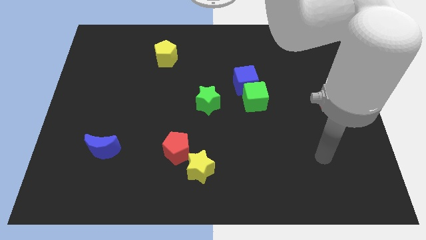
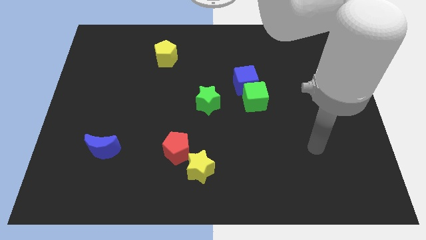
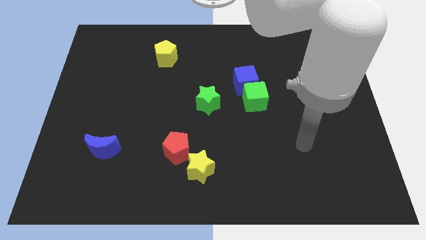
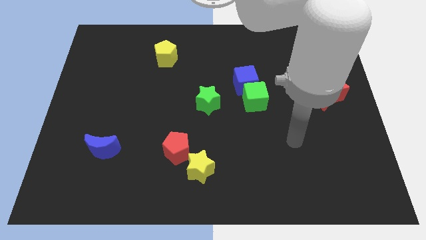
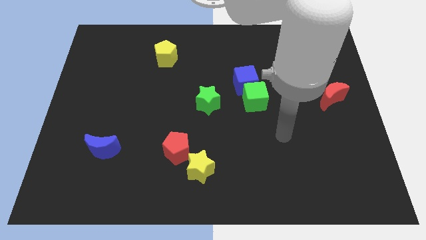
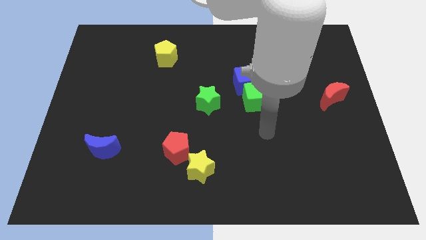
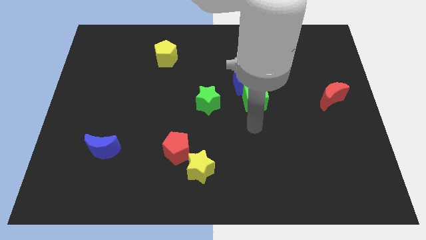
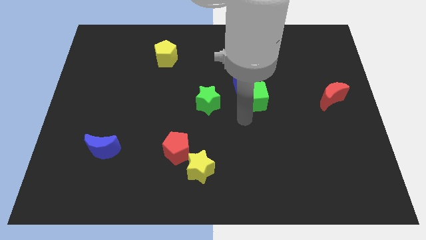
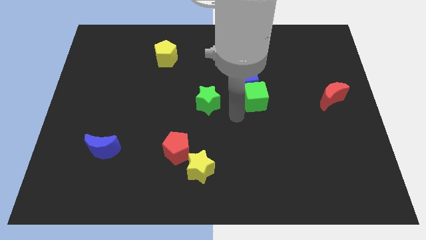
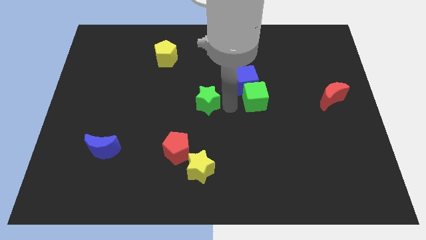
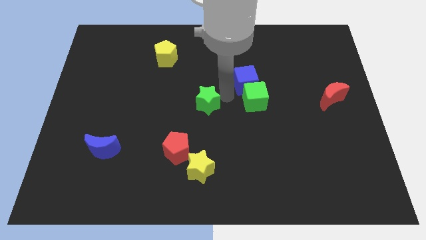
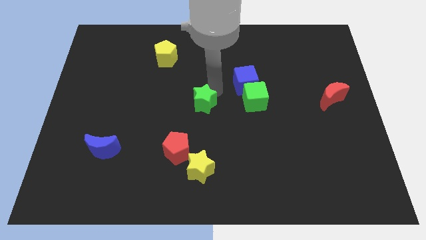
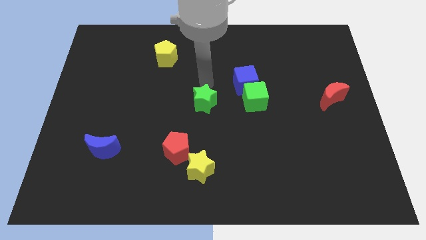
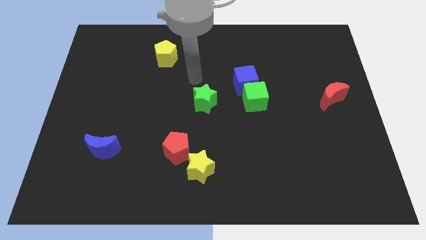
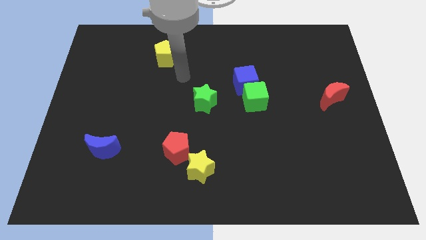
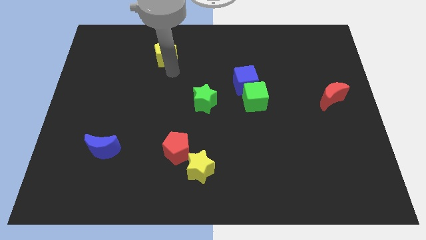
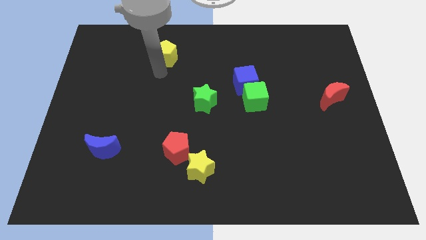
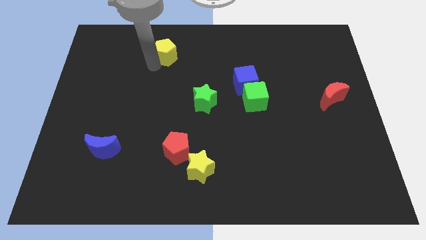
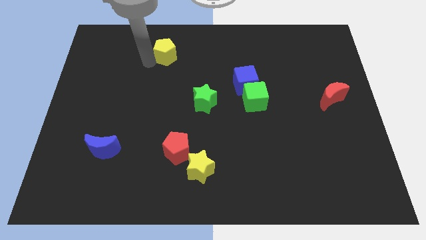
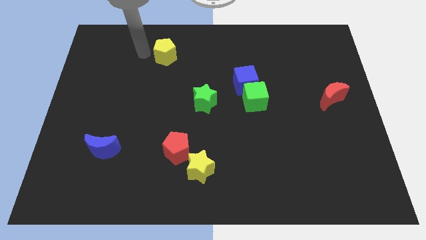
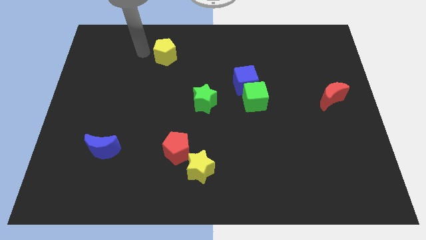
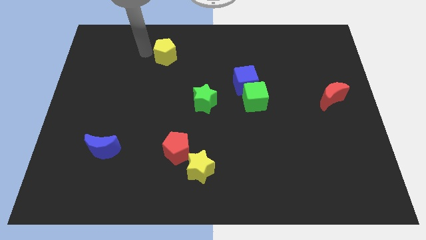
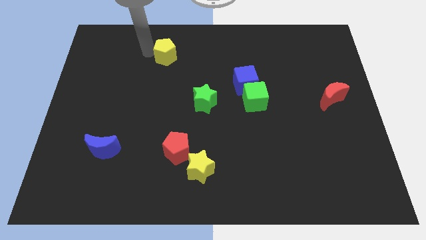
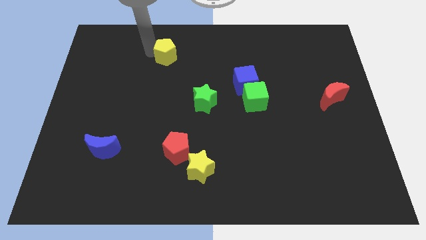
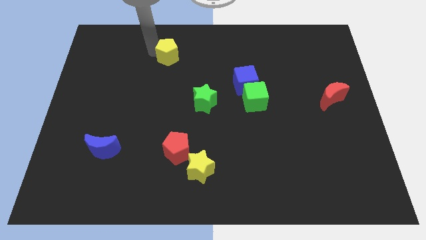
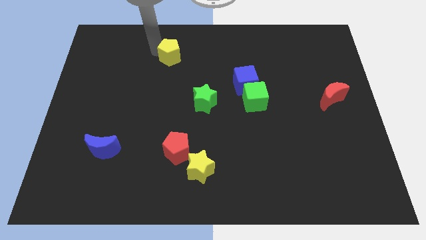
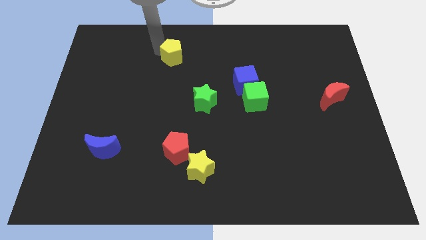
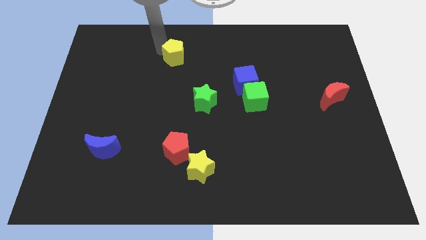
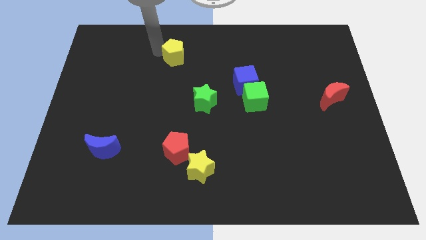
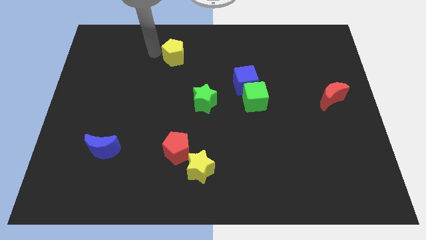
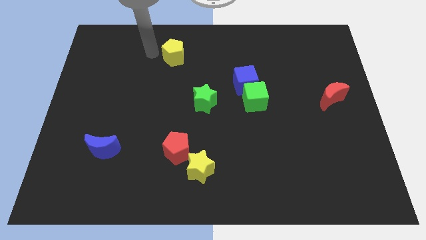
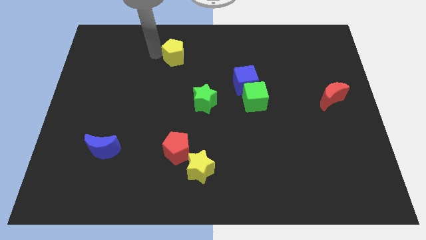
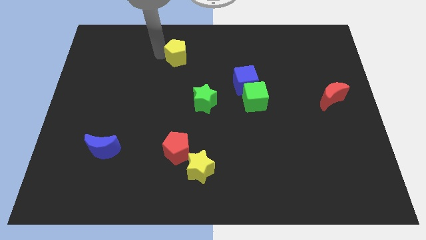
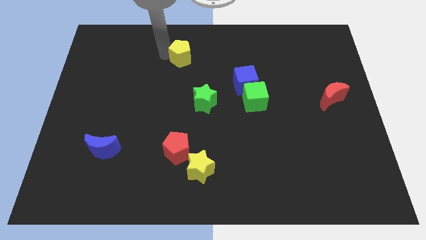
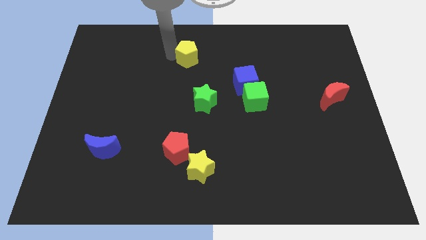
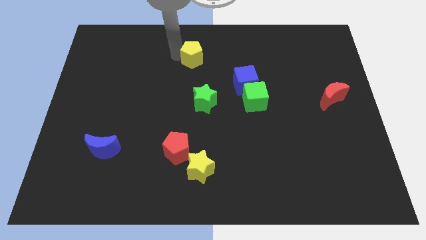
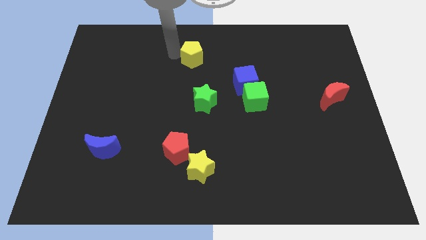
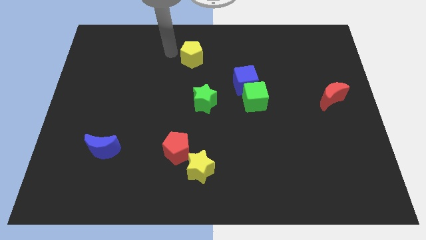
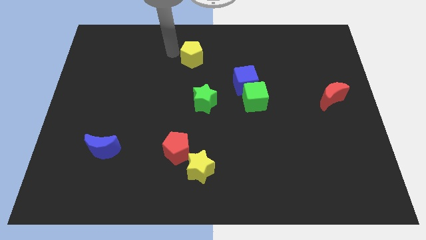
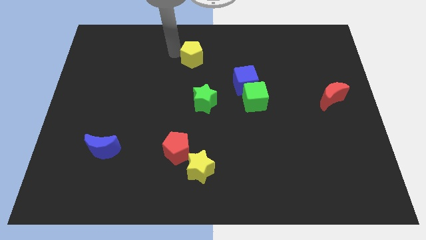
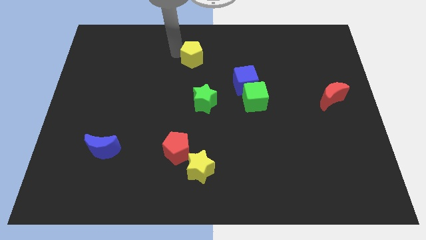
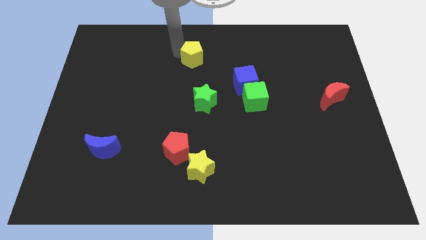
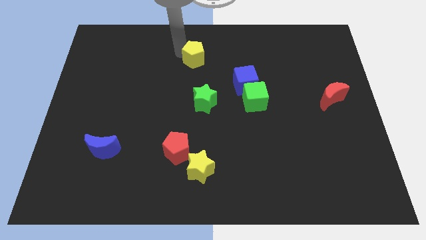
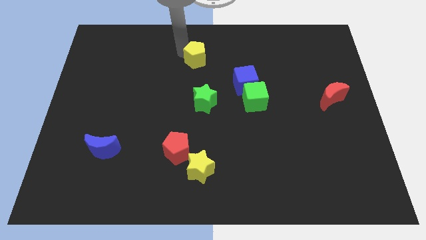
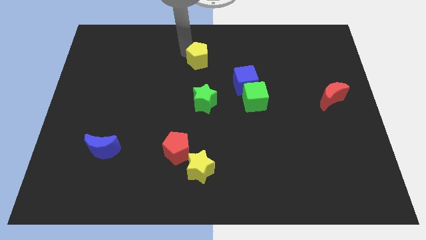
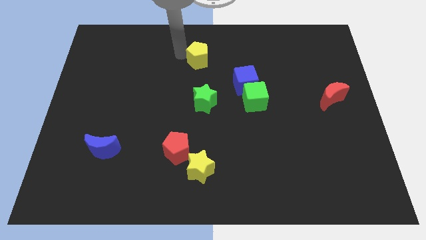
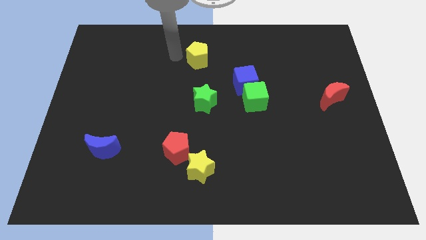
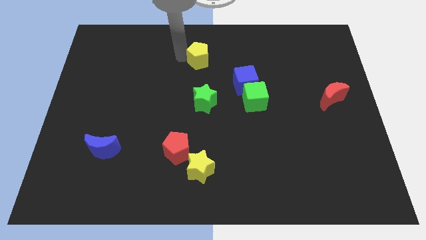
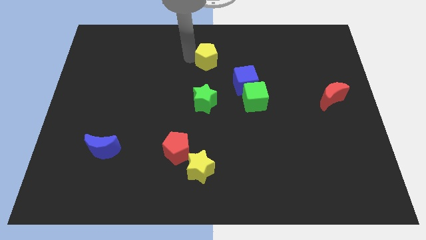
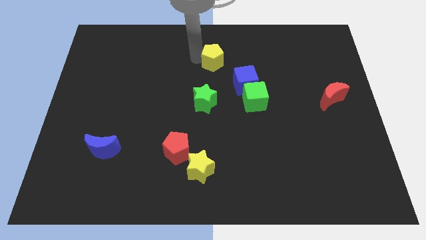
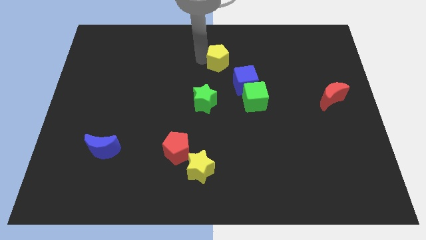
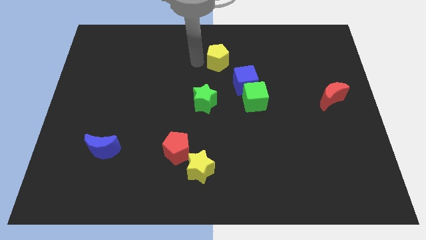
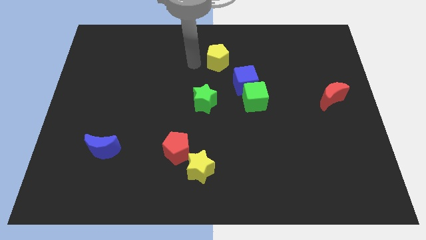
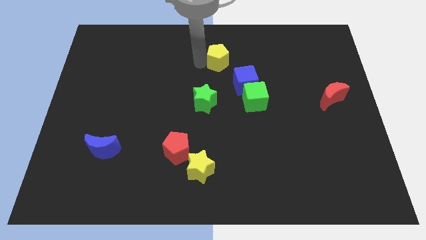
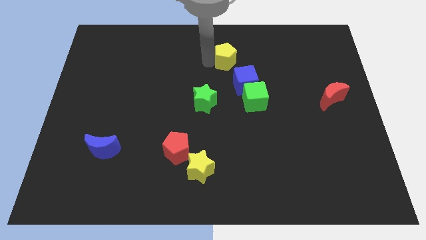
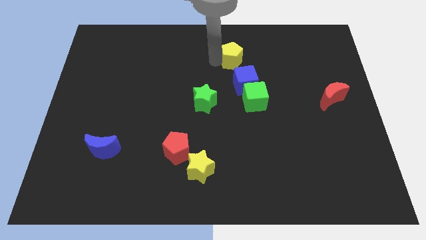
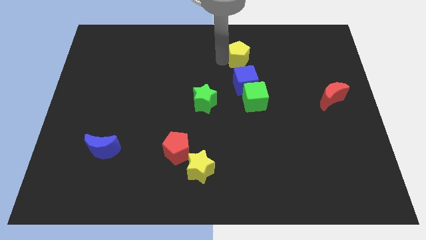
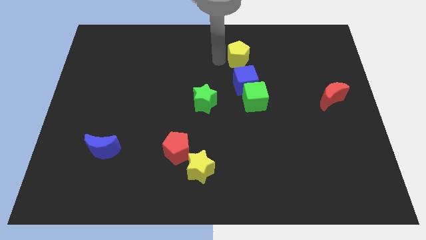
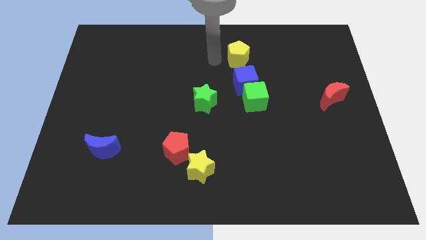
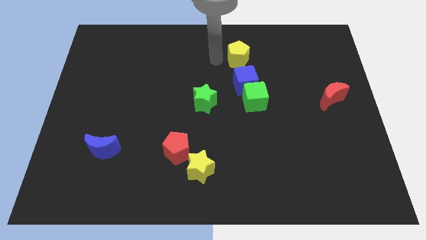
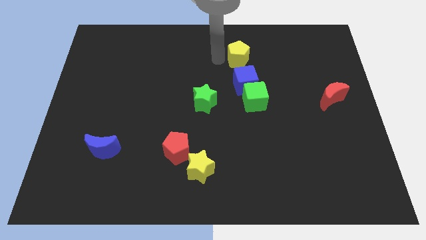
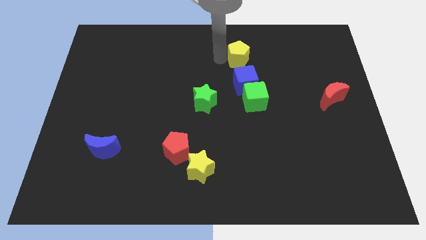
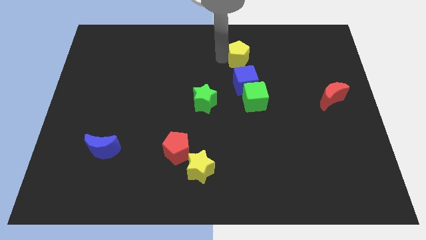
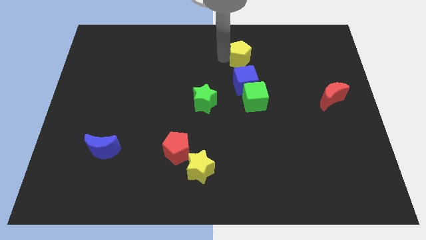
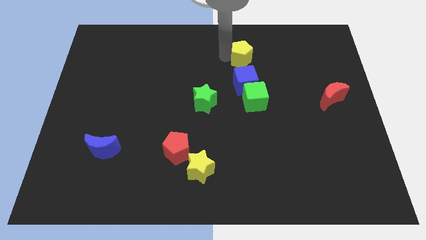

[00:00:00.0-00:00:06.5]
move the yellow pentagon to the right

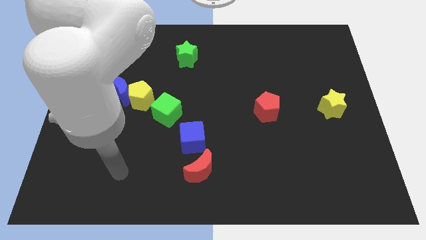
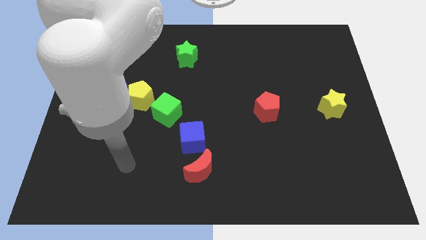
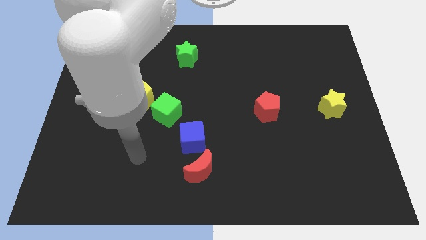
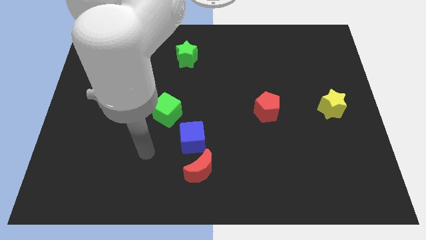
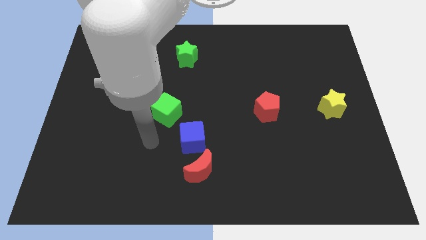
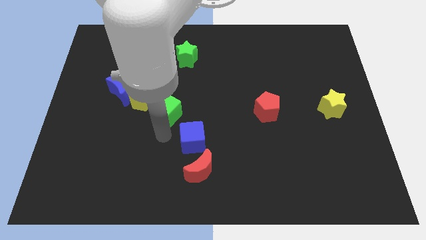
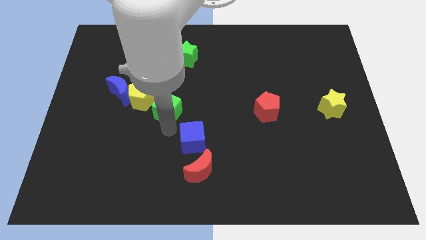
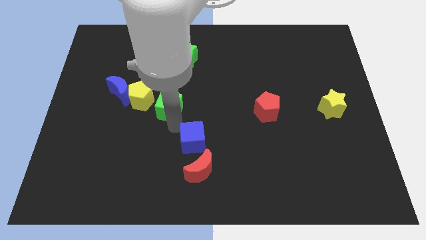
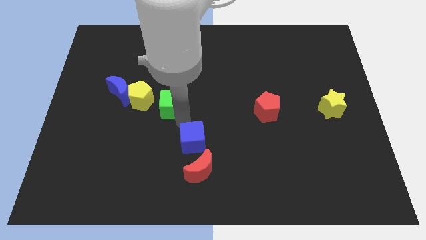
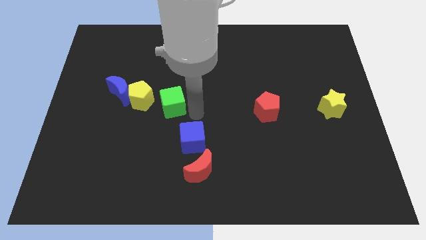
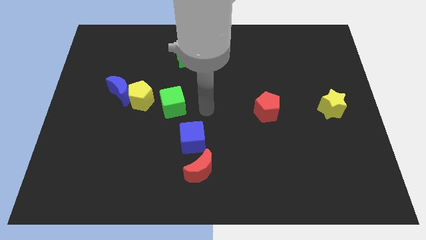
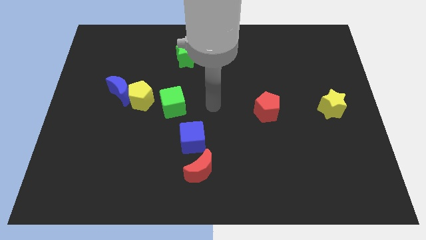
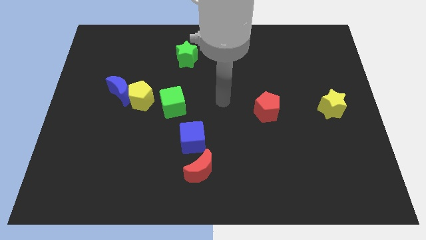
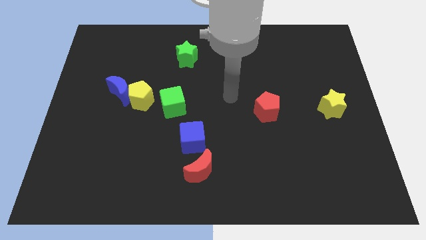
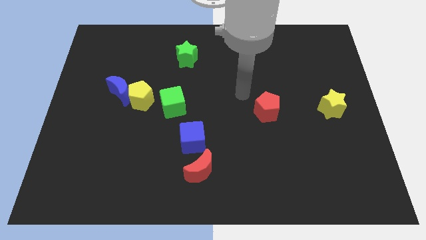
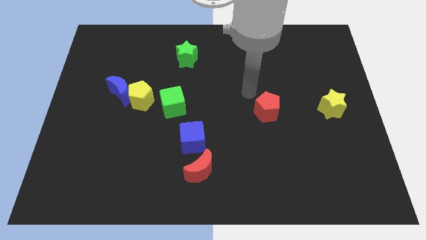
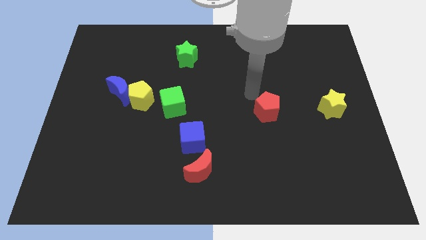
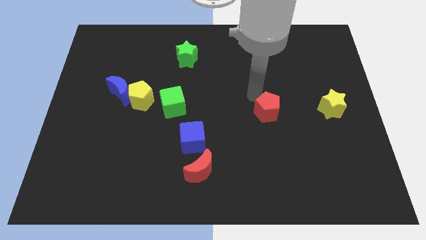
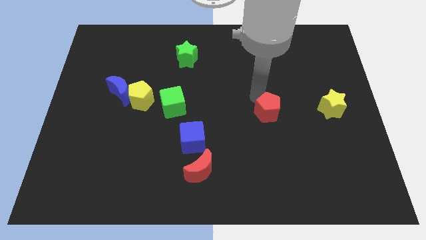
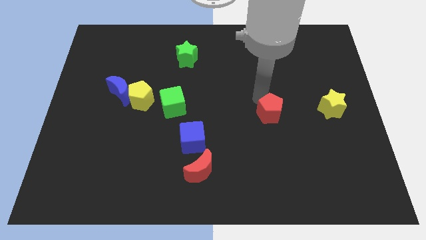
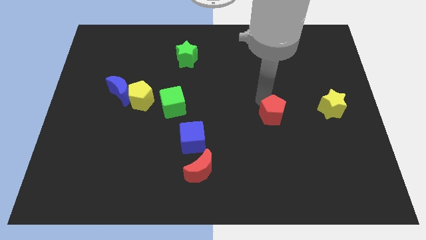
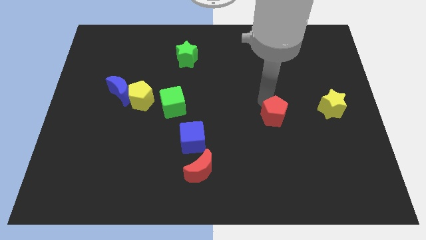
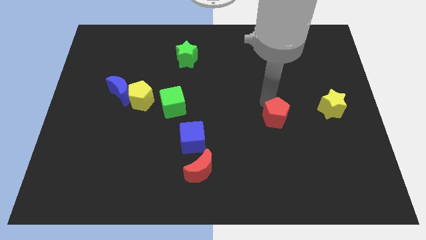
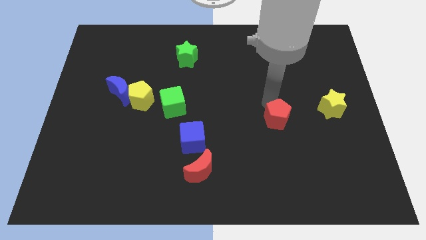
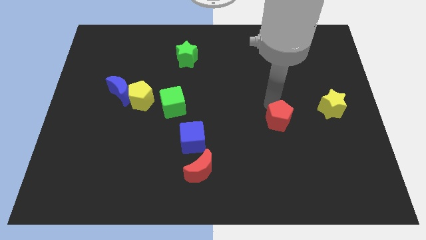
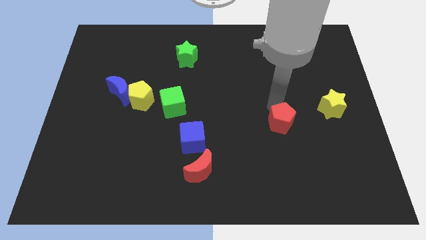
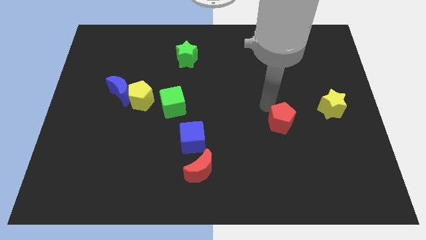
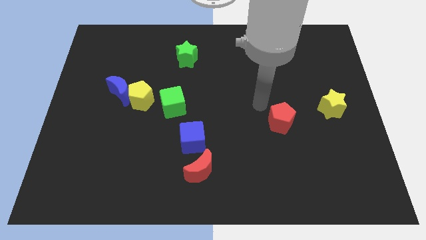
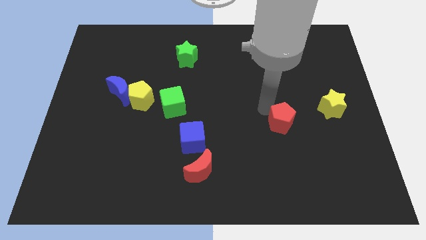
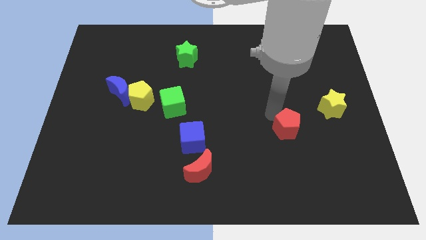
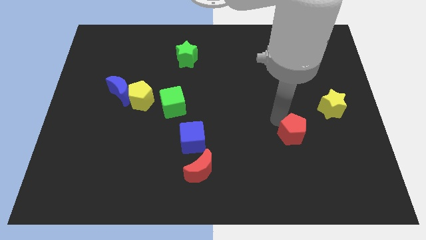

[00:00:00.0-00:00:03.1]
slide the red pentagon down and to the right diagonally a little bit
